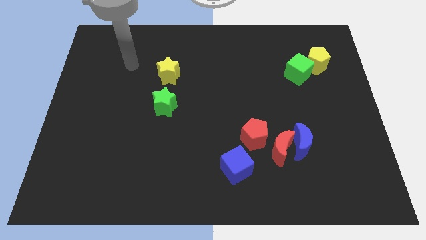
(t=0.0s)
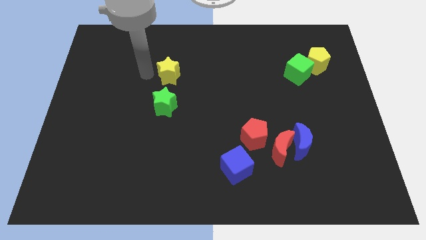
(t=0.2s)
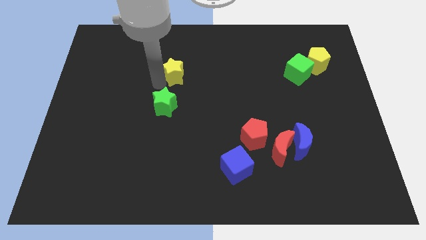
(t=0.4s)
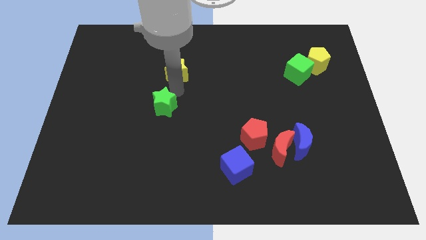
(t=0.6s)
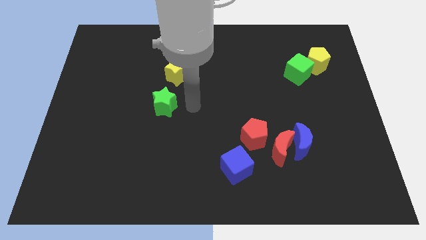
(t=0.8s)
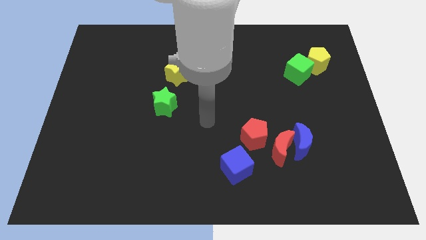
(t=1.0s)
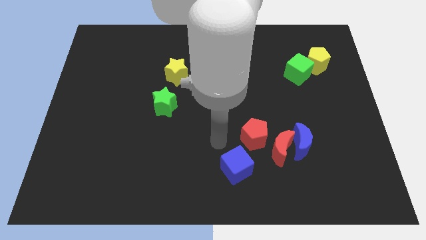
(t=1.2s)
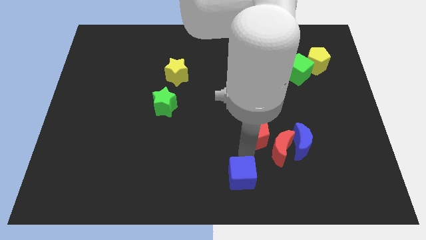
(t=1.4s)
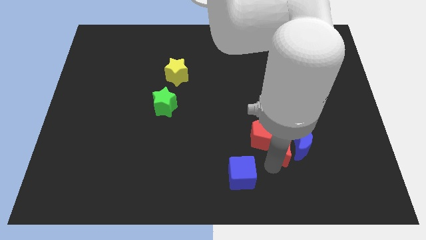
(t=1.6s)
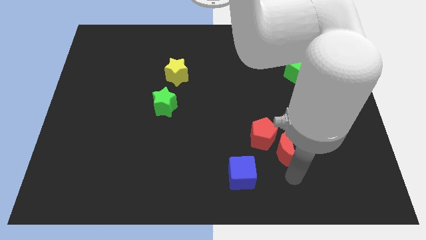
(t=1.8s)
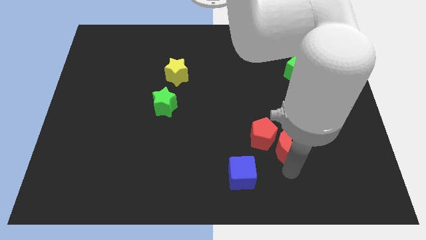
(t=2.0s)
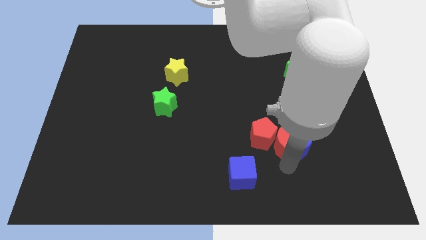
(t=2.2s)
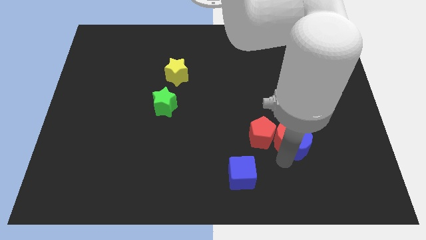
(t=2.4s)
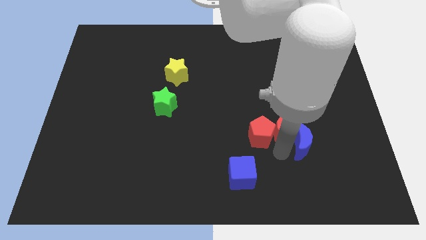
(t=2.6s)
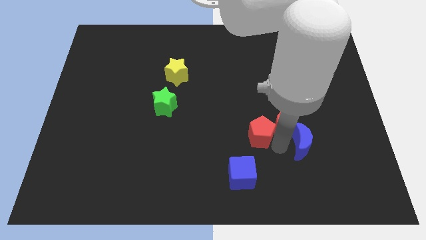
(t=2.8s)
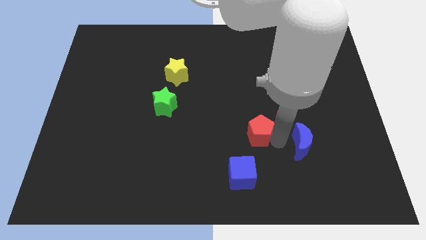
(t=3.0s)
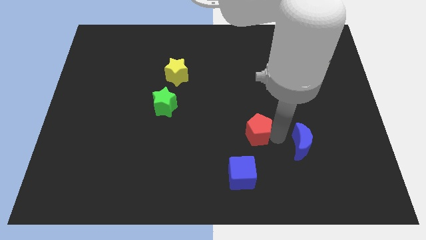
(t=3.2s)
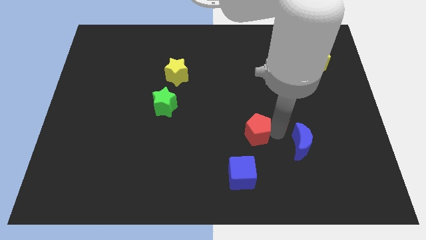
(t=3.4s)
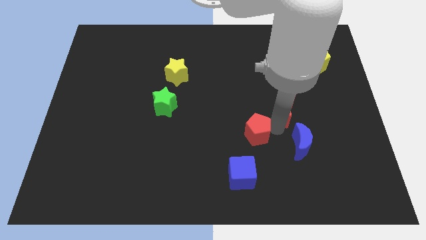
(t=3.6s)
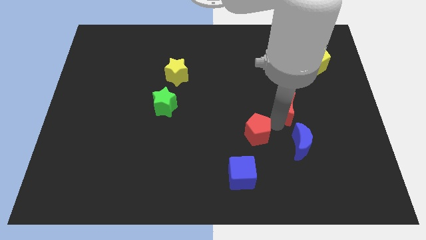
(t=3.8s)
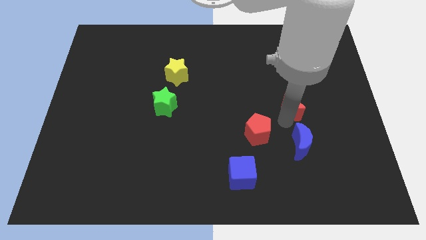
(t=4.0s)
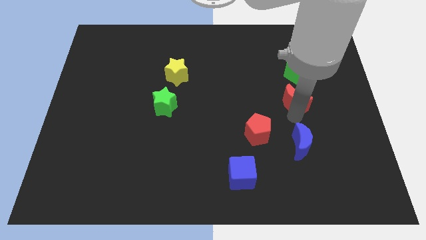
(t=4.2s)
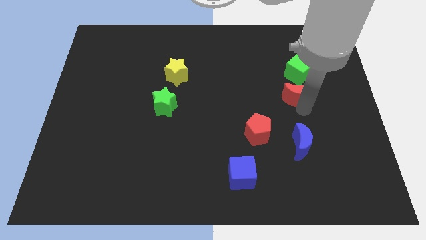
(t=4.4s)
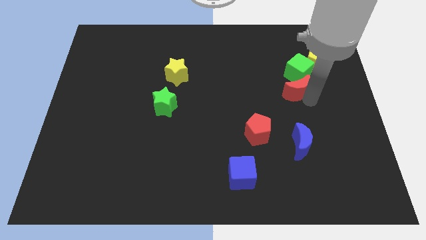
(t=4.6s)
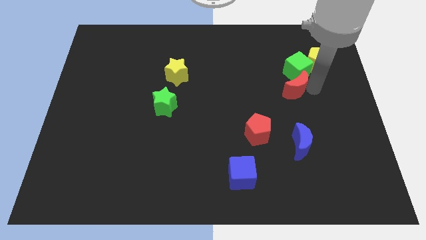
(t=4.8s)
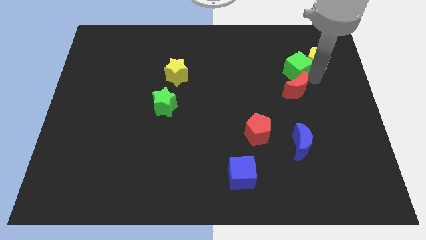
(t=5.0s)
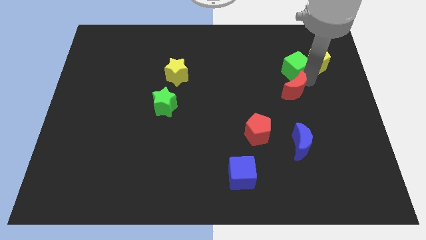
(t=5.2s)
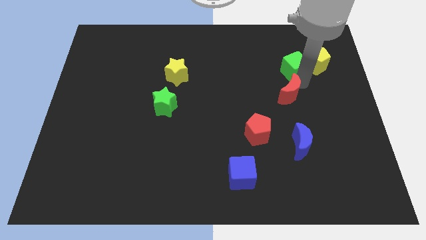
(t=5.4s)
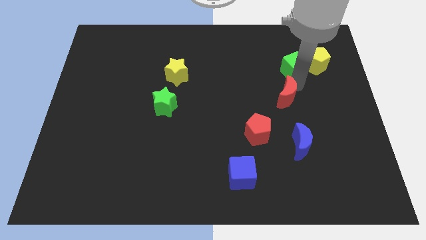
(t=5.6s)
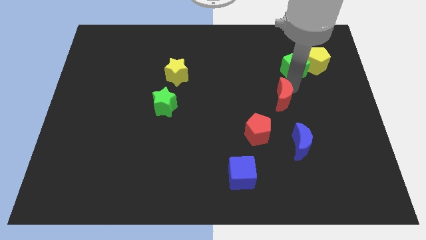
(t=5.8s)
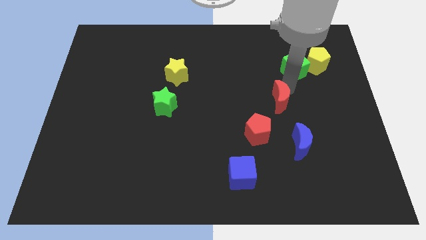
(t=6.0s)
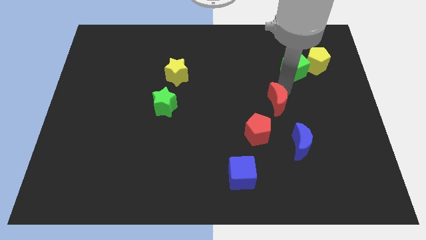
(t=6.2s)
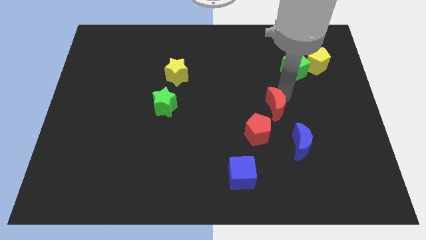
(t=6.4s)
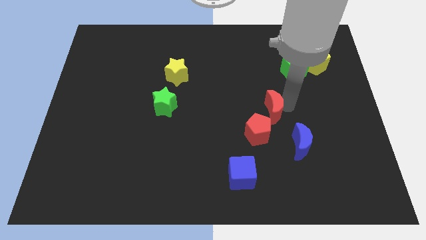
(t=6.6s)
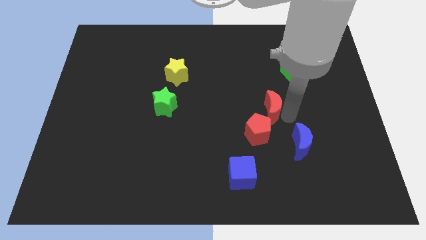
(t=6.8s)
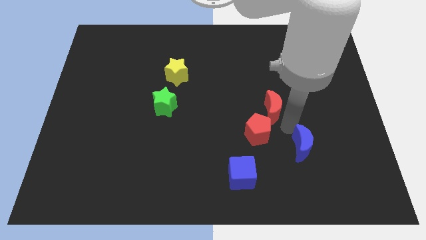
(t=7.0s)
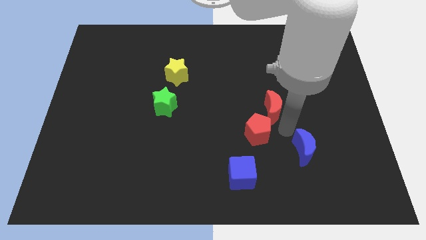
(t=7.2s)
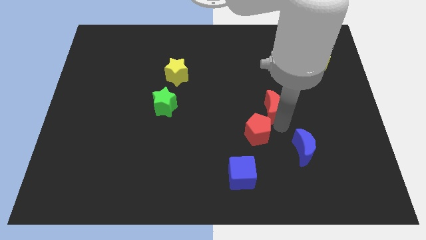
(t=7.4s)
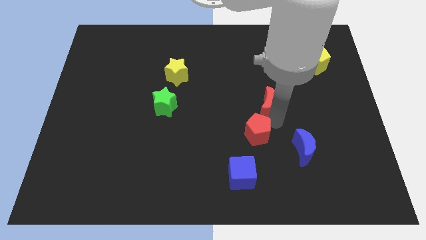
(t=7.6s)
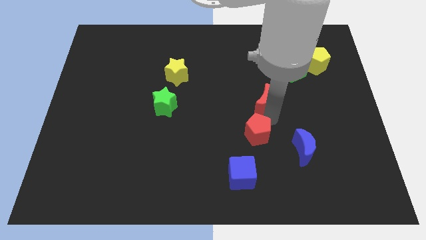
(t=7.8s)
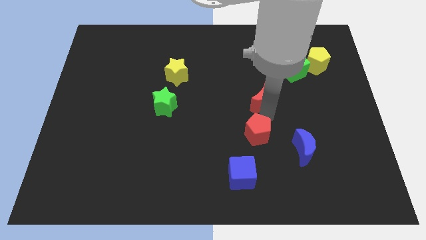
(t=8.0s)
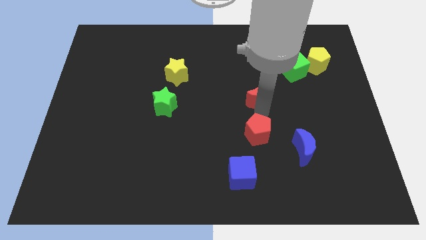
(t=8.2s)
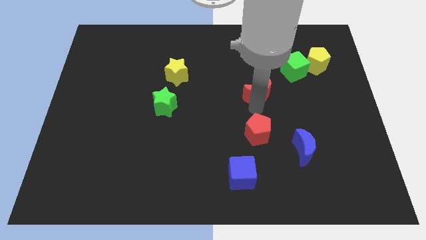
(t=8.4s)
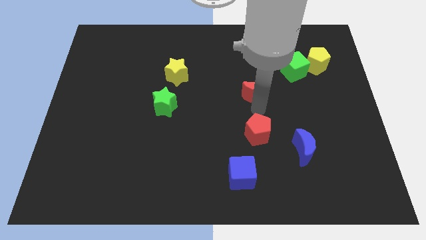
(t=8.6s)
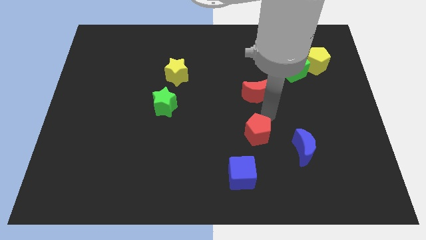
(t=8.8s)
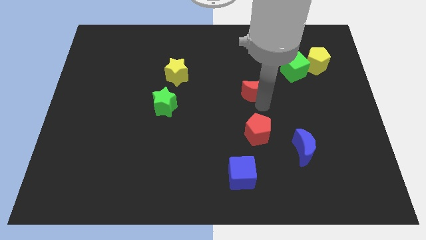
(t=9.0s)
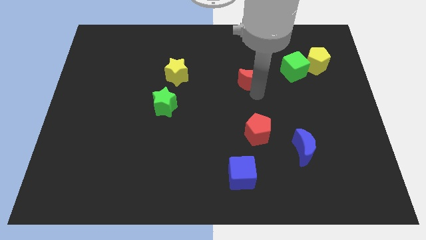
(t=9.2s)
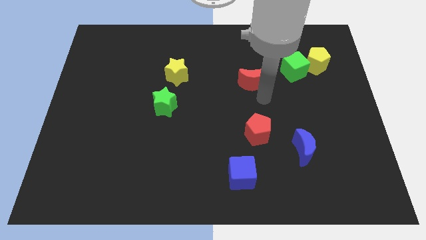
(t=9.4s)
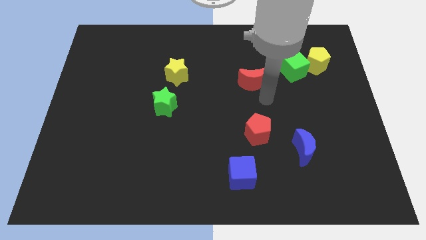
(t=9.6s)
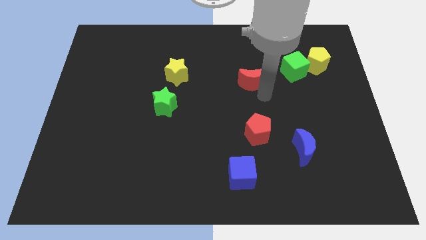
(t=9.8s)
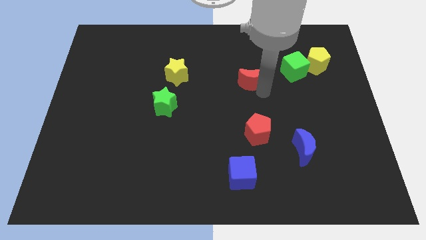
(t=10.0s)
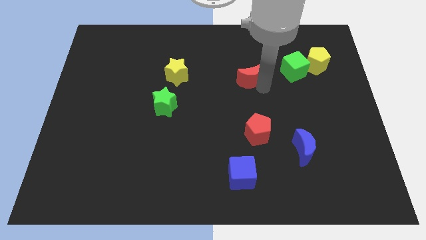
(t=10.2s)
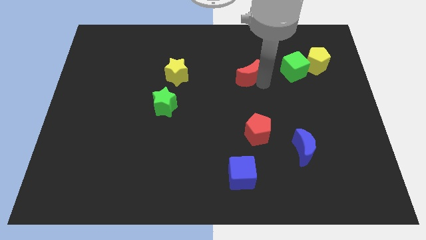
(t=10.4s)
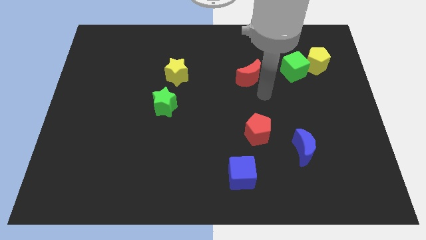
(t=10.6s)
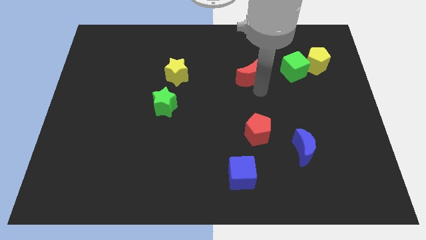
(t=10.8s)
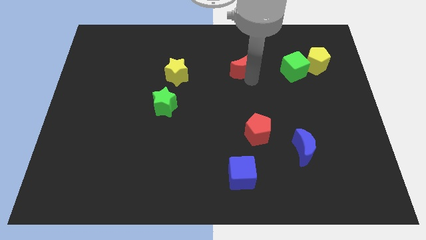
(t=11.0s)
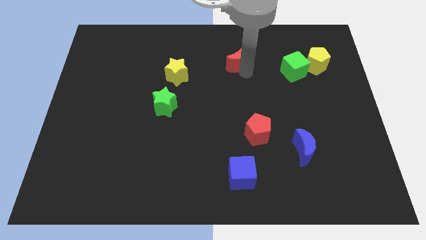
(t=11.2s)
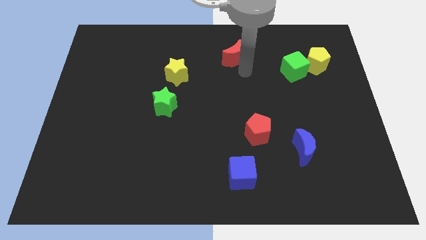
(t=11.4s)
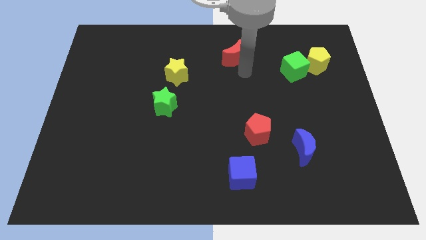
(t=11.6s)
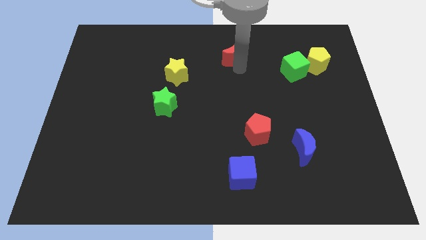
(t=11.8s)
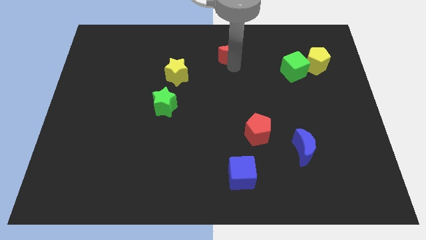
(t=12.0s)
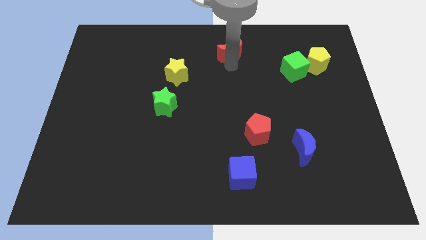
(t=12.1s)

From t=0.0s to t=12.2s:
put the red moon to the towards your base
